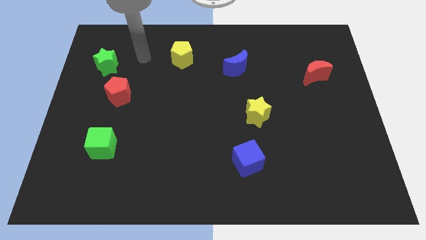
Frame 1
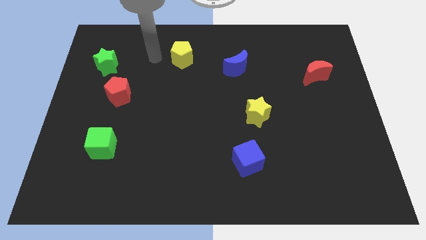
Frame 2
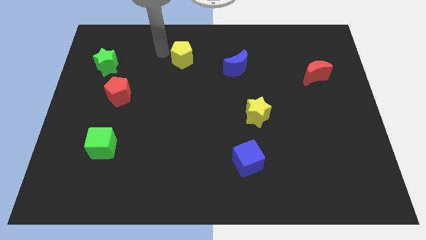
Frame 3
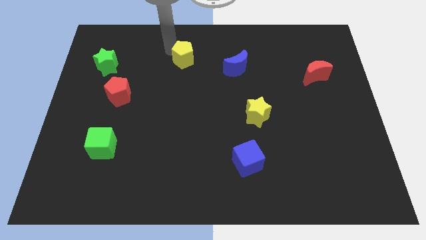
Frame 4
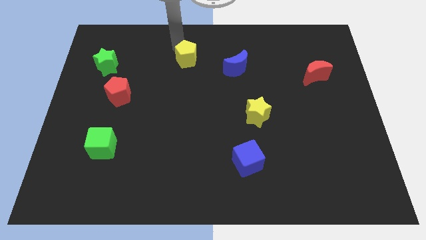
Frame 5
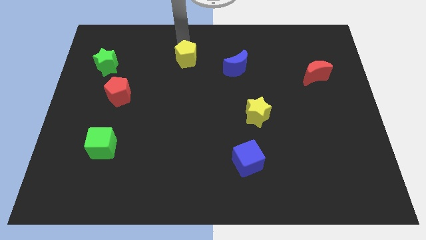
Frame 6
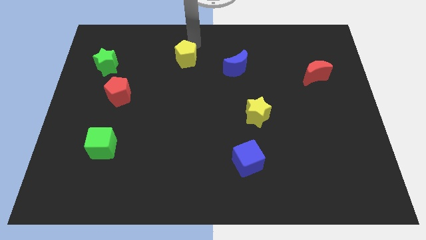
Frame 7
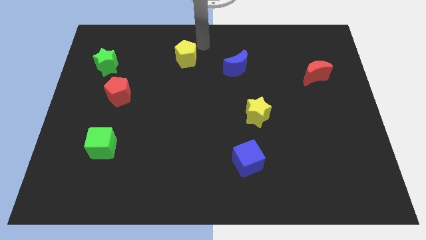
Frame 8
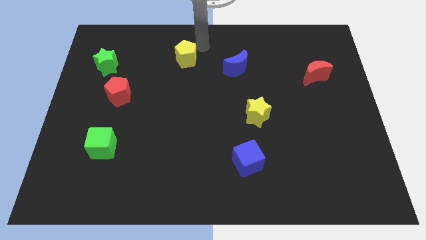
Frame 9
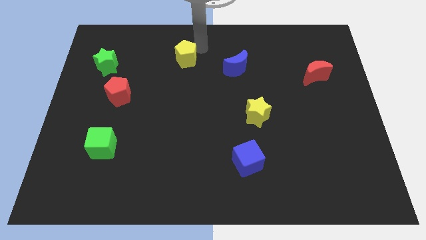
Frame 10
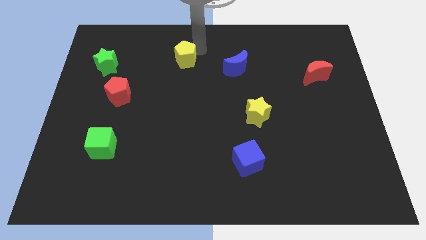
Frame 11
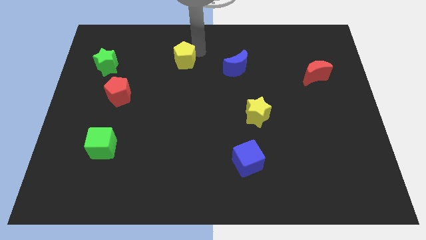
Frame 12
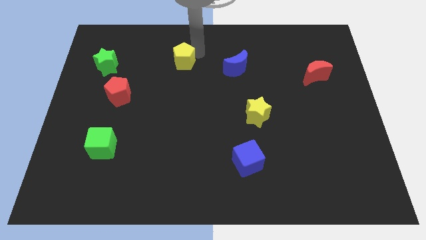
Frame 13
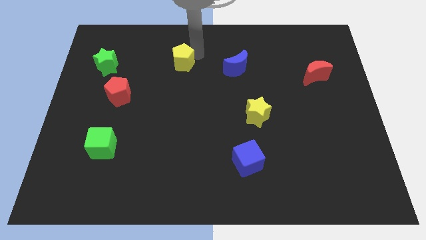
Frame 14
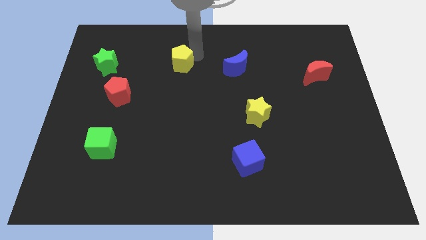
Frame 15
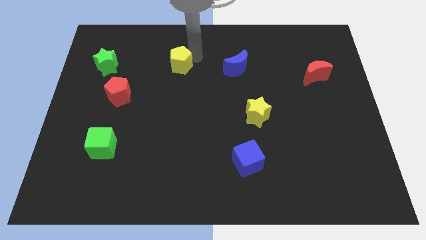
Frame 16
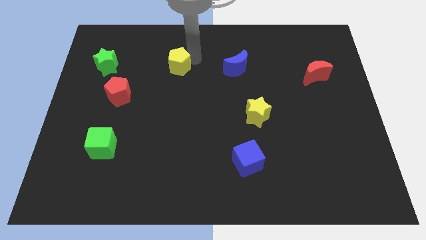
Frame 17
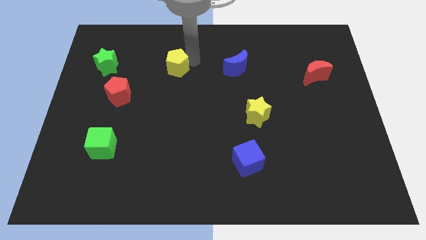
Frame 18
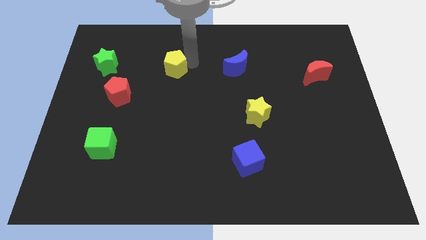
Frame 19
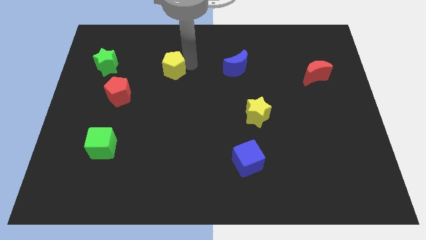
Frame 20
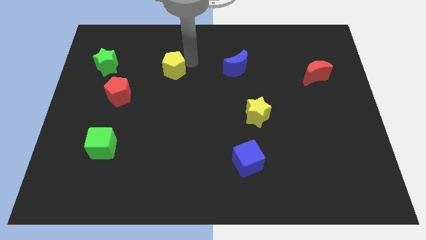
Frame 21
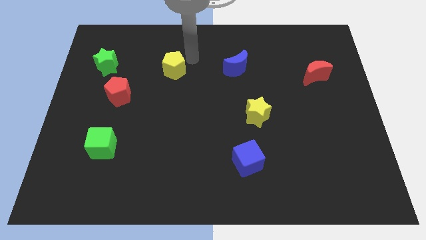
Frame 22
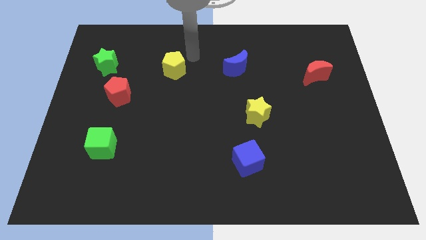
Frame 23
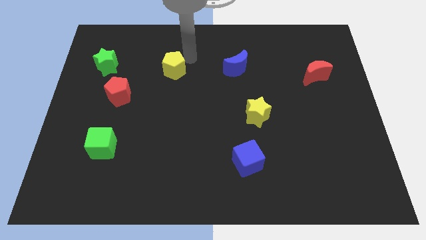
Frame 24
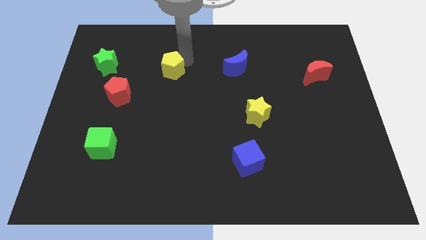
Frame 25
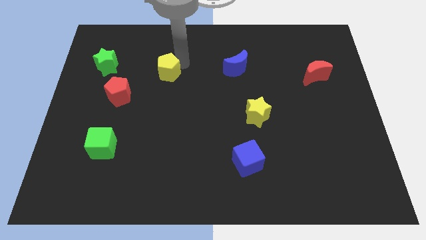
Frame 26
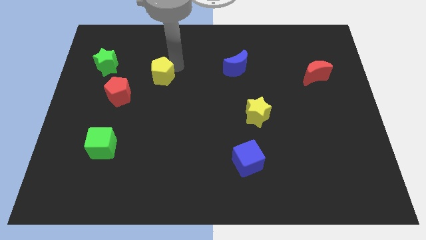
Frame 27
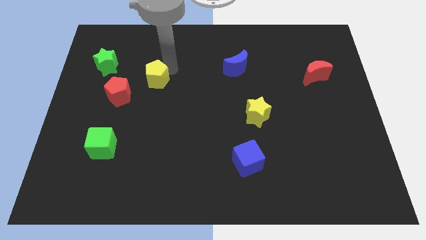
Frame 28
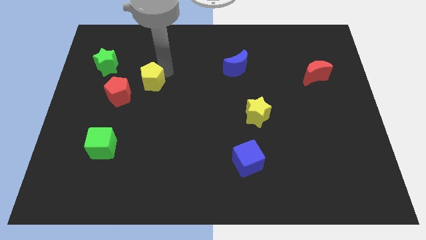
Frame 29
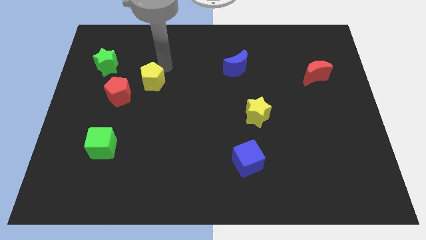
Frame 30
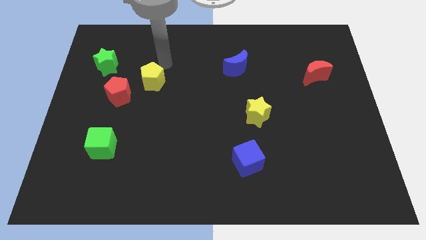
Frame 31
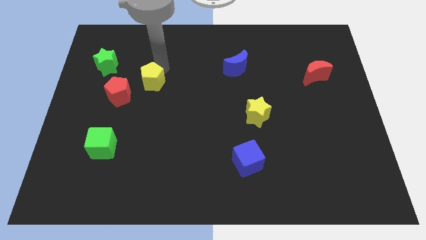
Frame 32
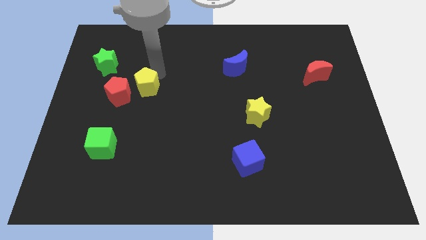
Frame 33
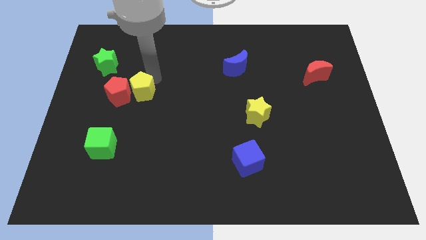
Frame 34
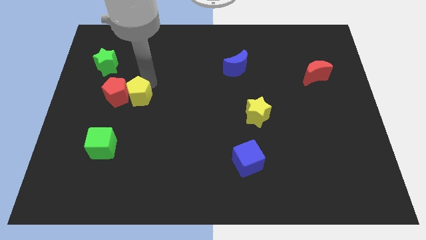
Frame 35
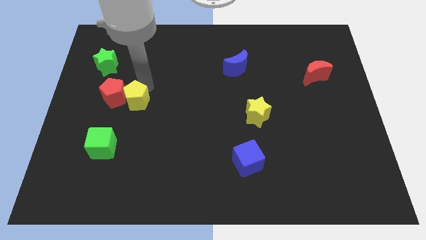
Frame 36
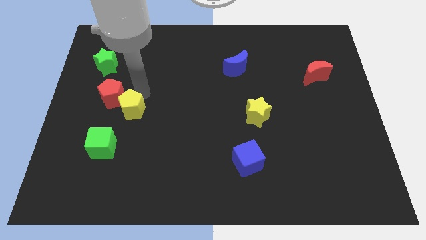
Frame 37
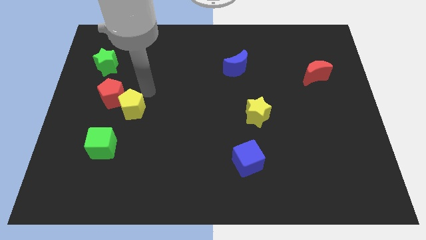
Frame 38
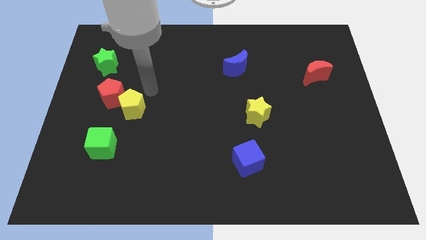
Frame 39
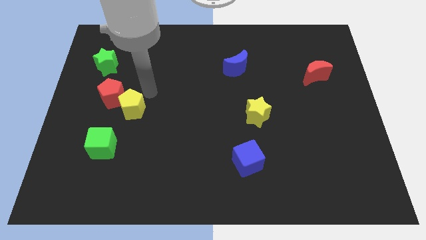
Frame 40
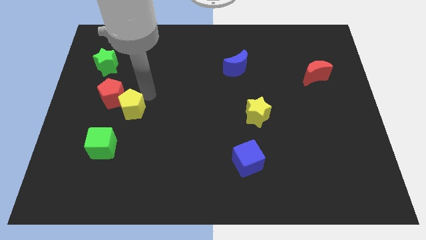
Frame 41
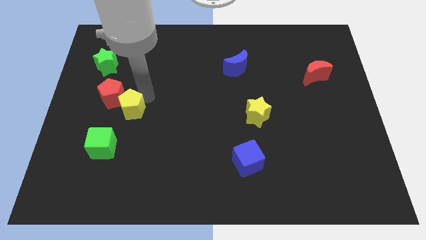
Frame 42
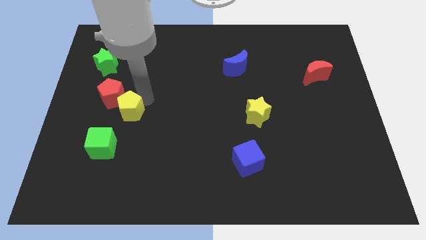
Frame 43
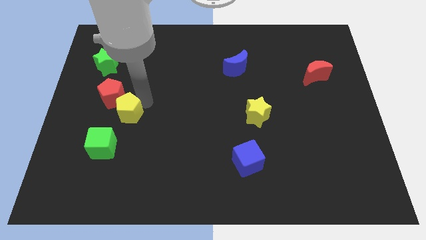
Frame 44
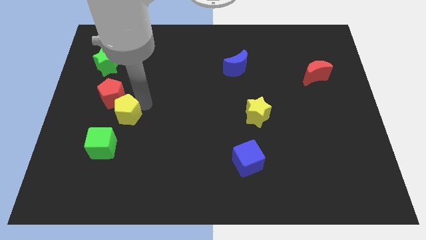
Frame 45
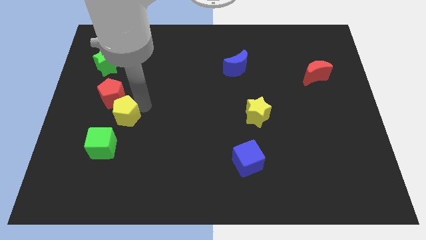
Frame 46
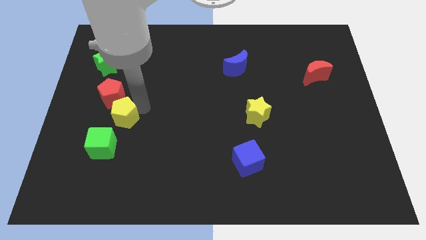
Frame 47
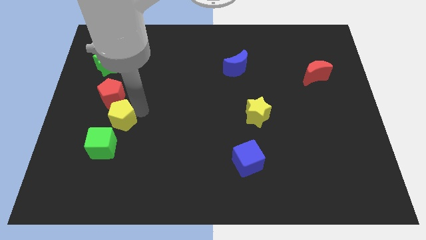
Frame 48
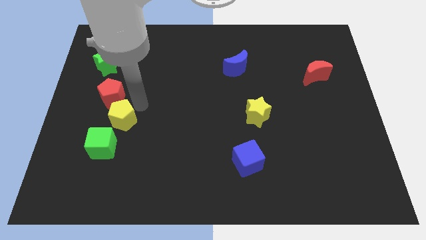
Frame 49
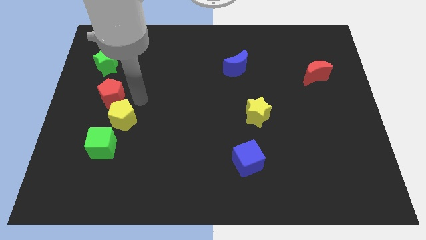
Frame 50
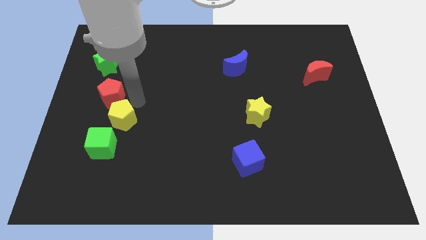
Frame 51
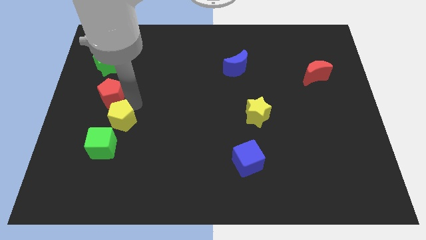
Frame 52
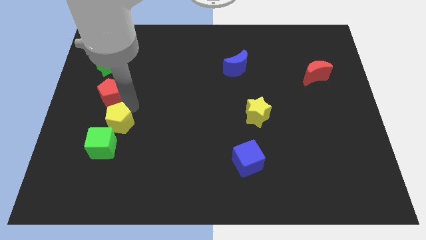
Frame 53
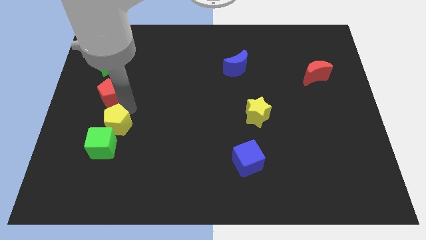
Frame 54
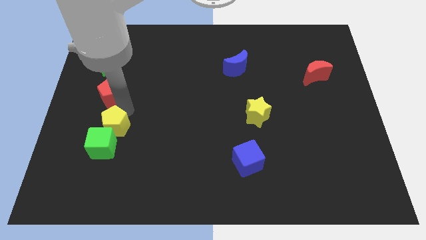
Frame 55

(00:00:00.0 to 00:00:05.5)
put the yellow pentagon next to the green cube

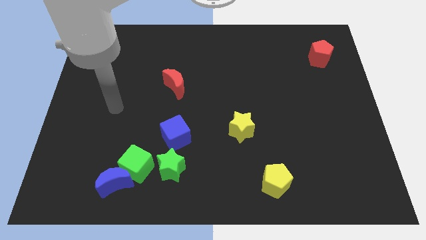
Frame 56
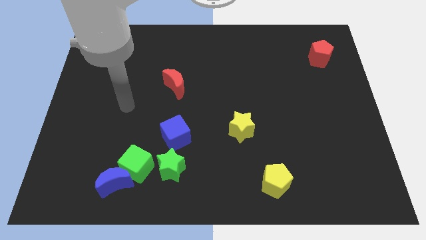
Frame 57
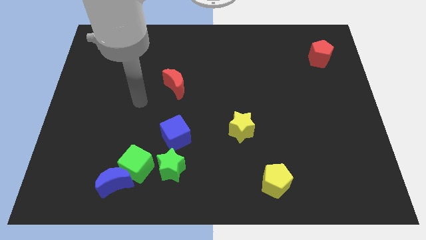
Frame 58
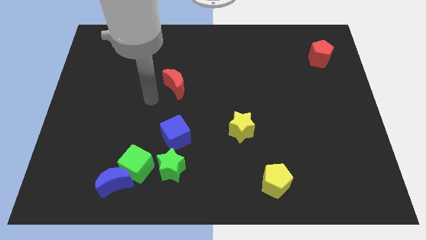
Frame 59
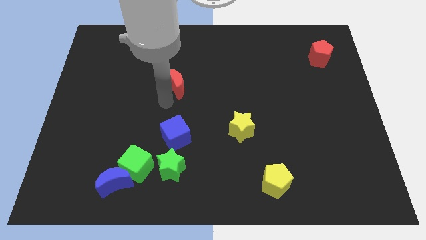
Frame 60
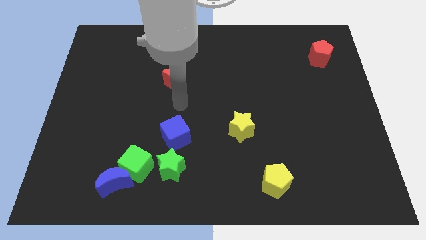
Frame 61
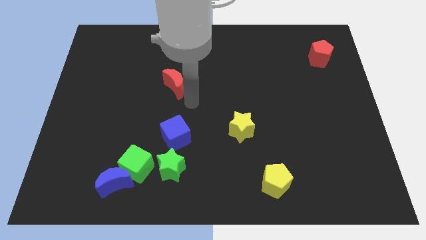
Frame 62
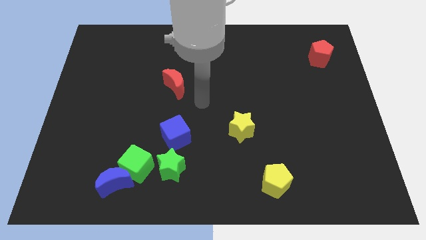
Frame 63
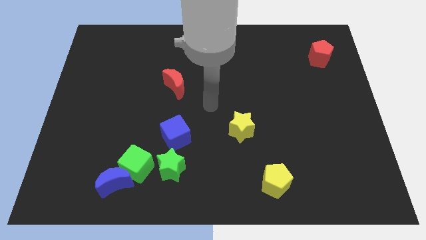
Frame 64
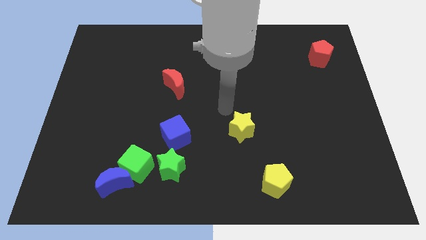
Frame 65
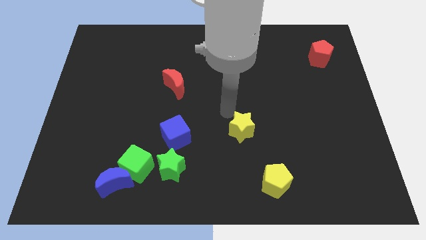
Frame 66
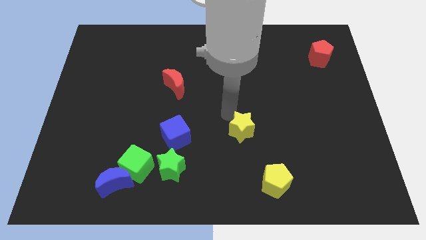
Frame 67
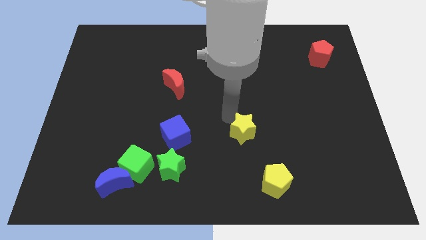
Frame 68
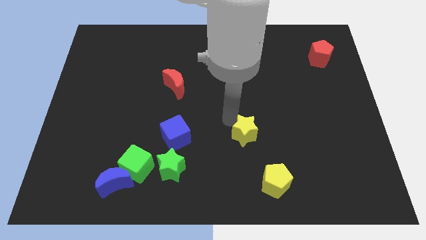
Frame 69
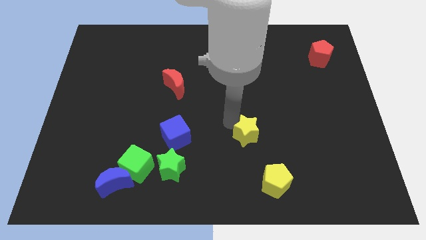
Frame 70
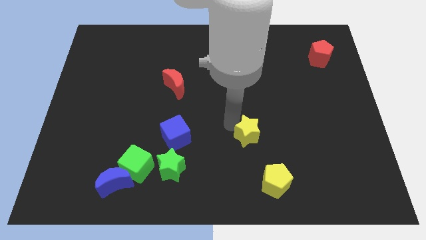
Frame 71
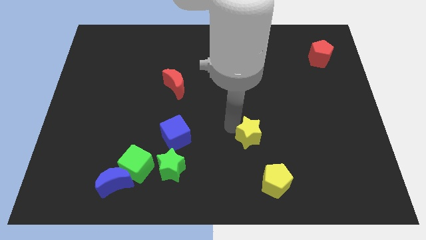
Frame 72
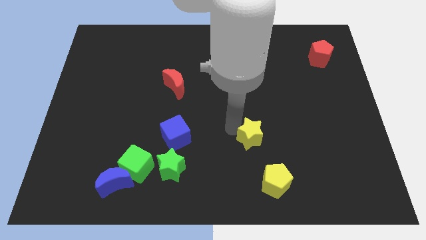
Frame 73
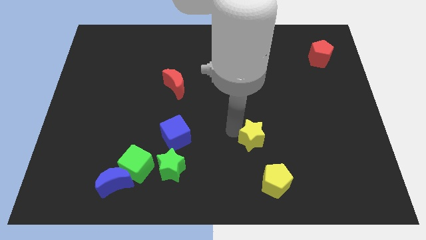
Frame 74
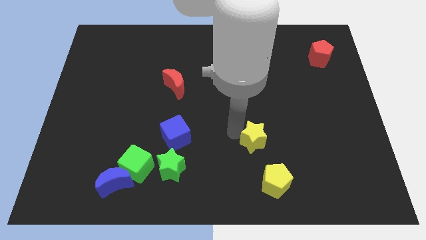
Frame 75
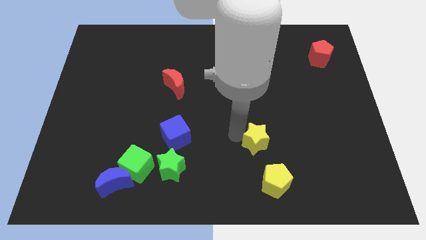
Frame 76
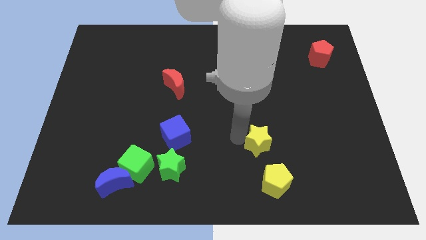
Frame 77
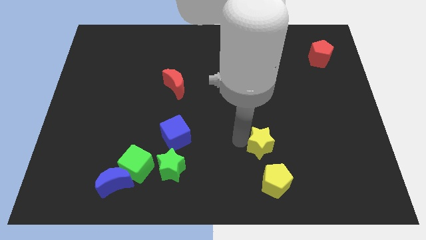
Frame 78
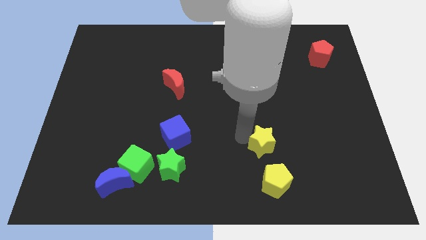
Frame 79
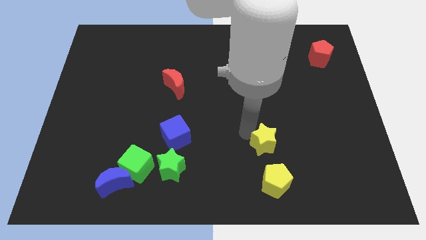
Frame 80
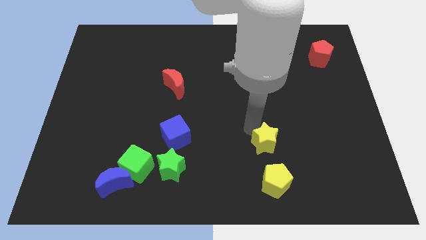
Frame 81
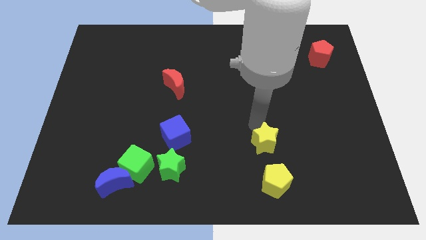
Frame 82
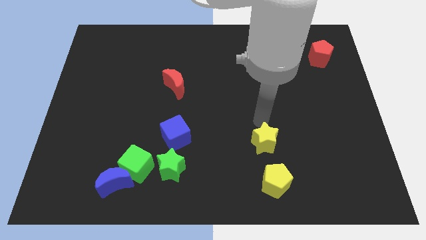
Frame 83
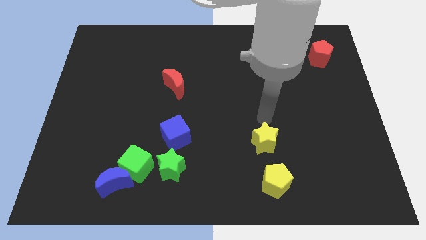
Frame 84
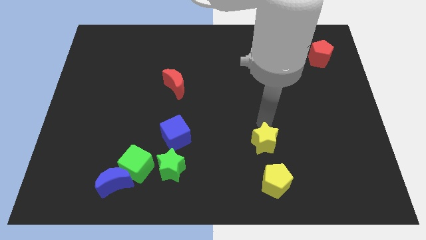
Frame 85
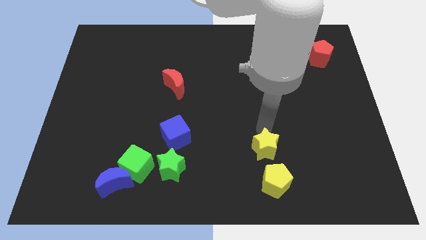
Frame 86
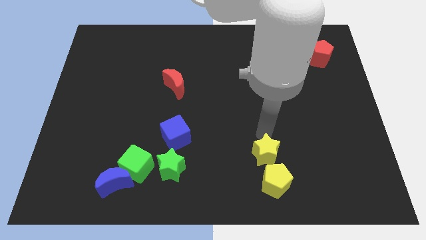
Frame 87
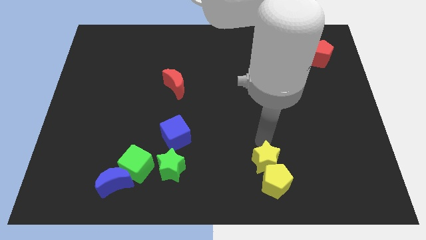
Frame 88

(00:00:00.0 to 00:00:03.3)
put the yellow star towards the yellow pentagon
